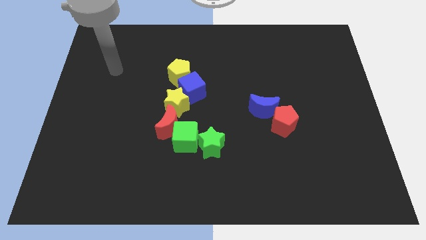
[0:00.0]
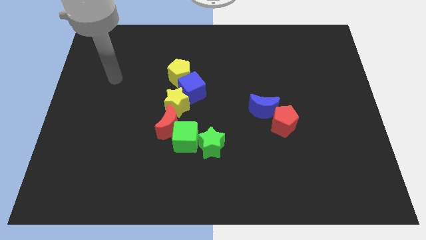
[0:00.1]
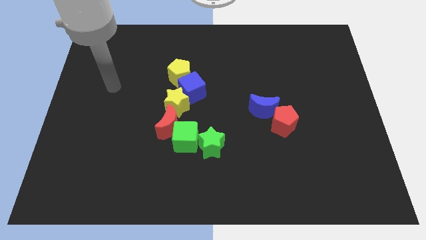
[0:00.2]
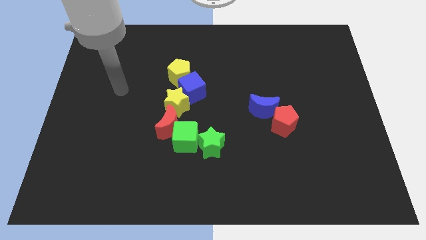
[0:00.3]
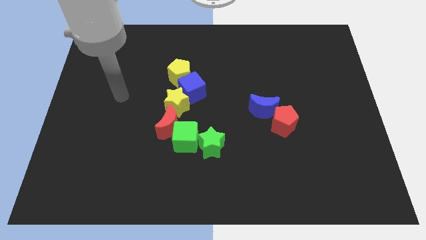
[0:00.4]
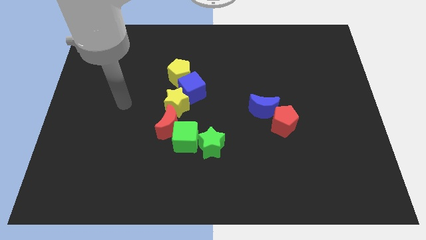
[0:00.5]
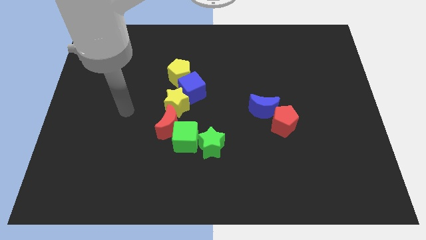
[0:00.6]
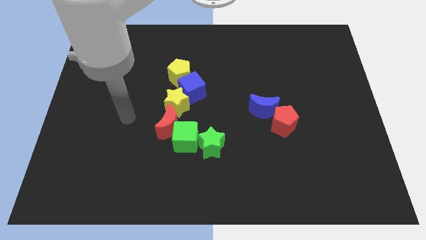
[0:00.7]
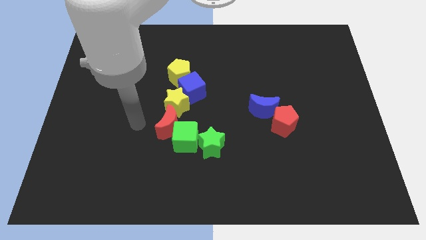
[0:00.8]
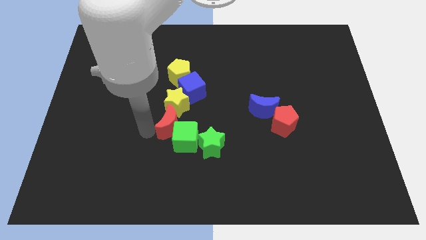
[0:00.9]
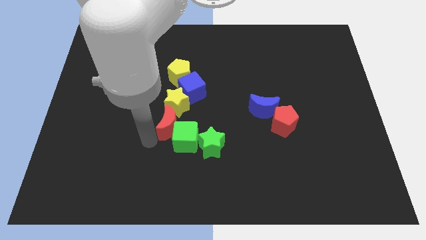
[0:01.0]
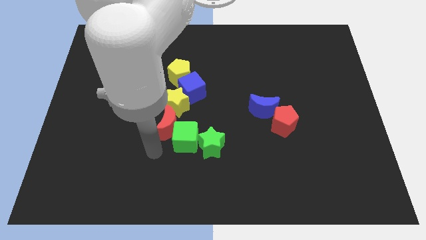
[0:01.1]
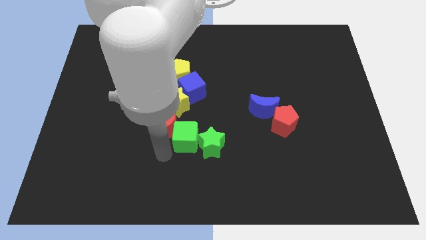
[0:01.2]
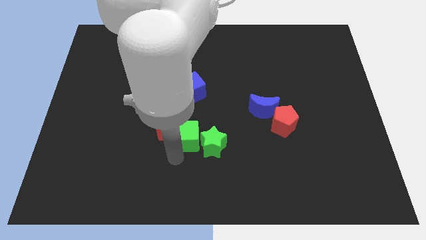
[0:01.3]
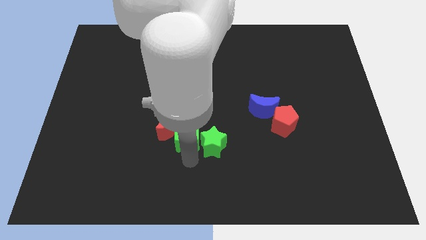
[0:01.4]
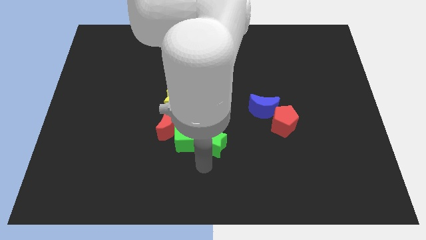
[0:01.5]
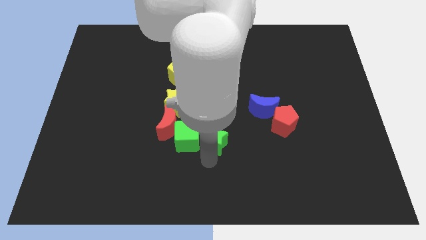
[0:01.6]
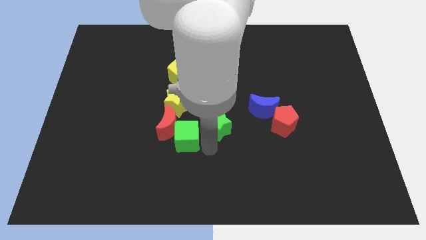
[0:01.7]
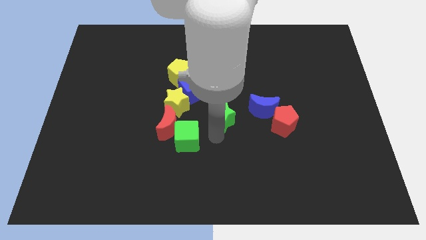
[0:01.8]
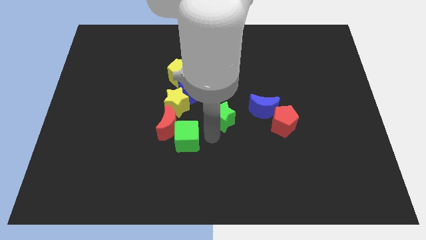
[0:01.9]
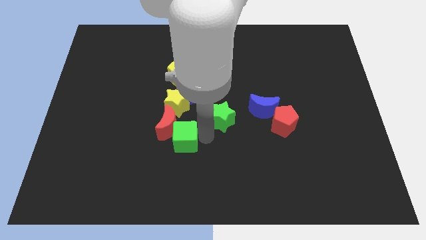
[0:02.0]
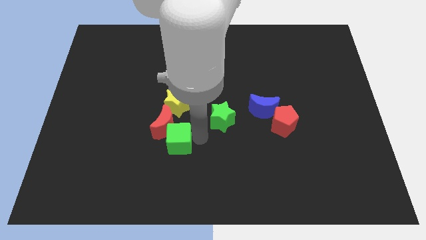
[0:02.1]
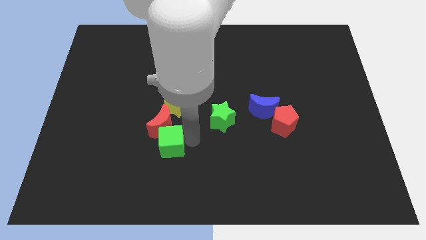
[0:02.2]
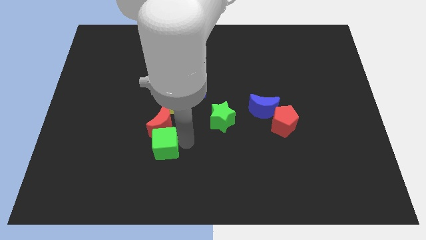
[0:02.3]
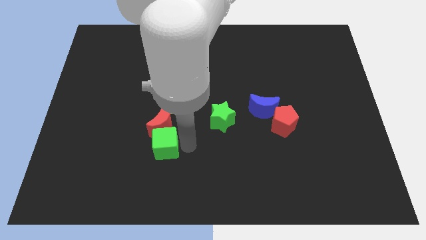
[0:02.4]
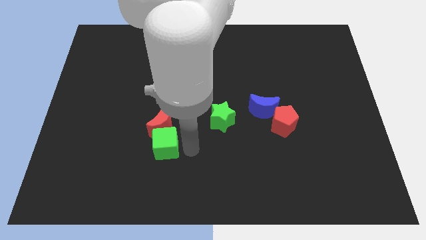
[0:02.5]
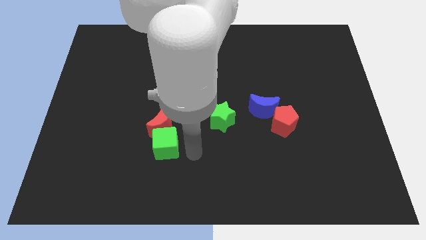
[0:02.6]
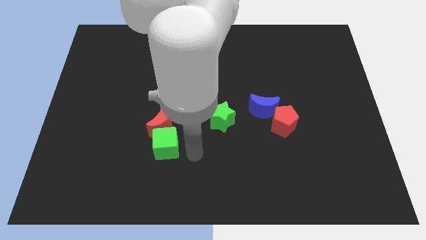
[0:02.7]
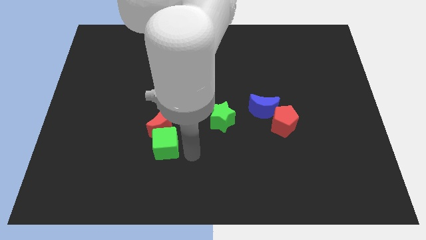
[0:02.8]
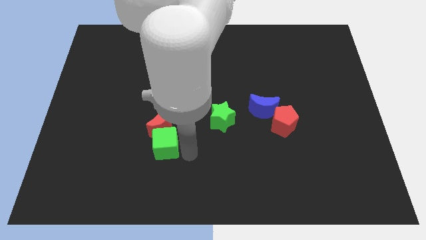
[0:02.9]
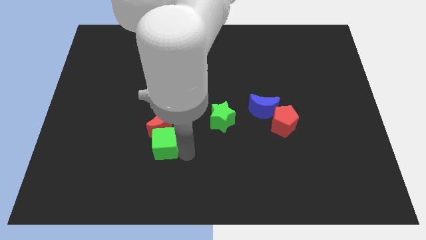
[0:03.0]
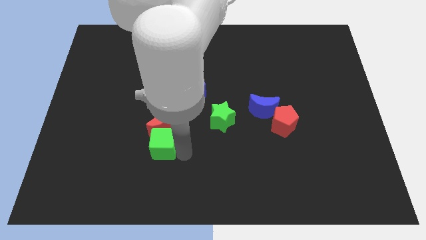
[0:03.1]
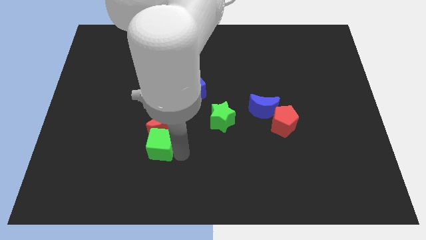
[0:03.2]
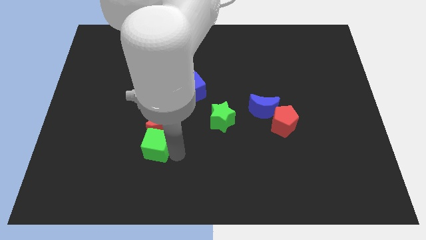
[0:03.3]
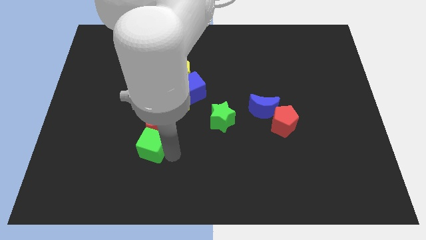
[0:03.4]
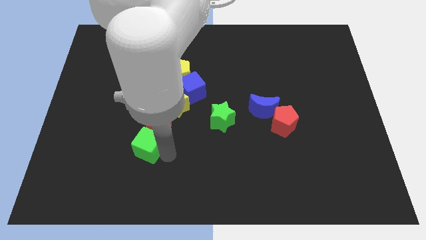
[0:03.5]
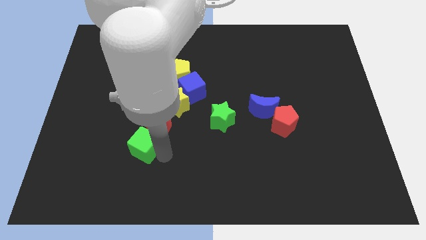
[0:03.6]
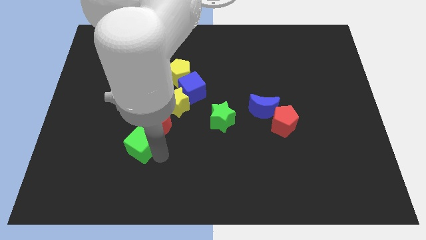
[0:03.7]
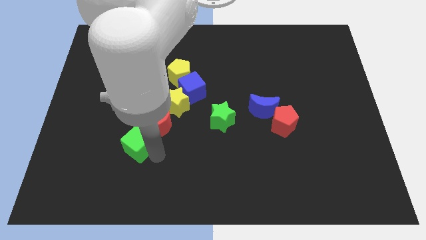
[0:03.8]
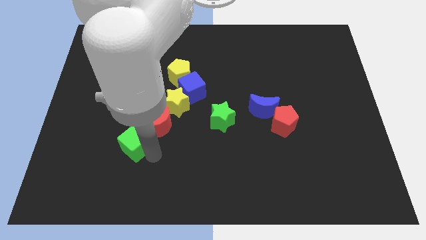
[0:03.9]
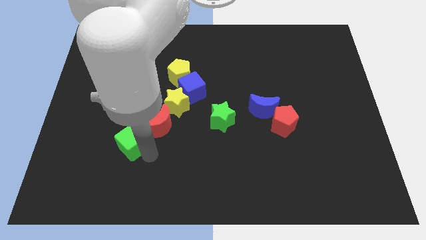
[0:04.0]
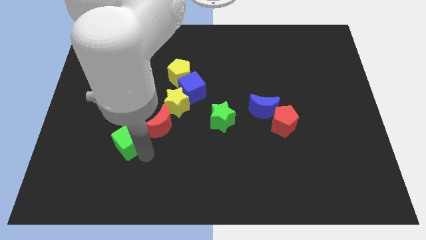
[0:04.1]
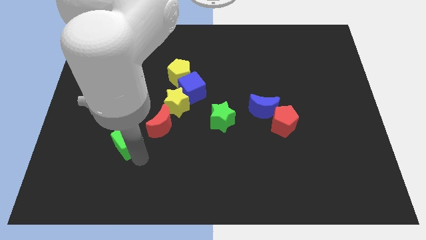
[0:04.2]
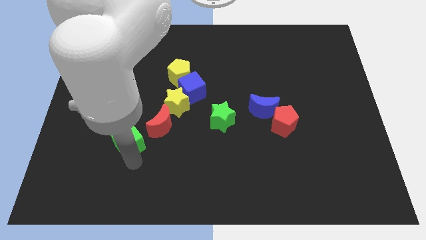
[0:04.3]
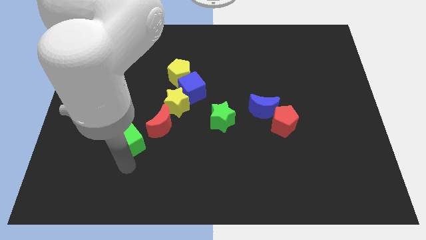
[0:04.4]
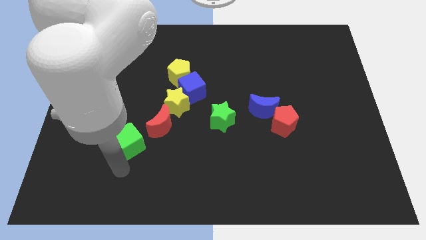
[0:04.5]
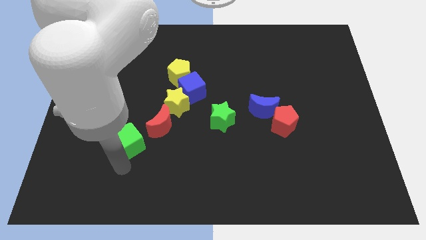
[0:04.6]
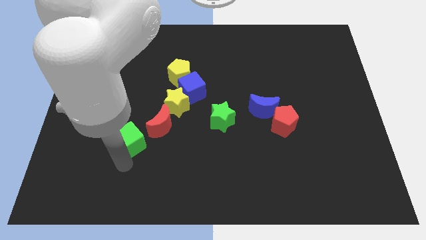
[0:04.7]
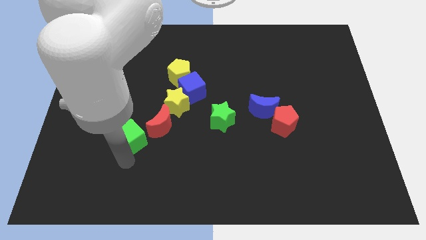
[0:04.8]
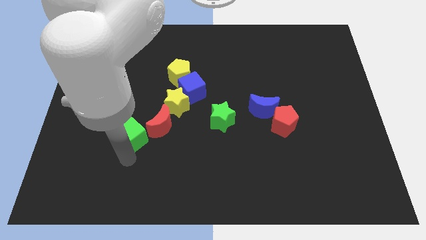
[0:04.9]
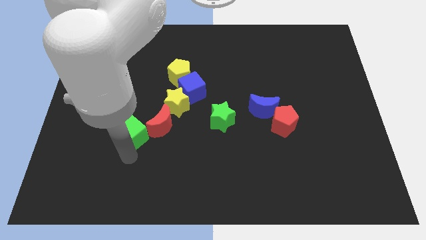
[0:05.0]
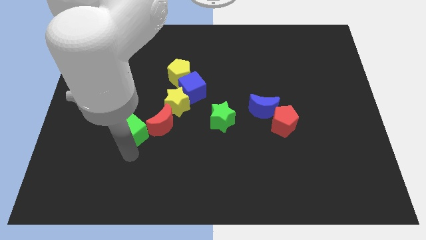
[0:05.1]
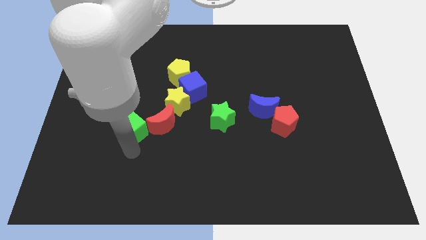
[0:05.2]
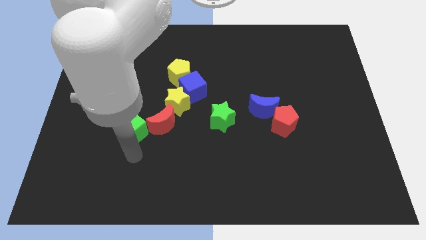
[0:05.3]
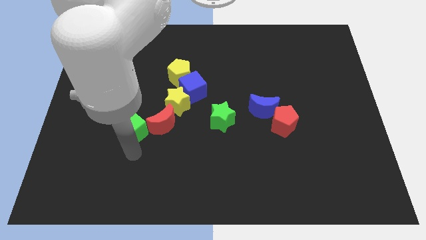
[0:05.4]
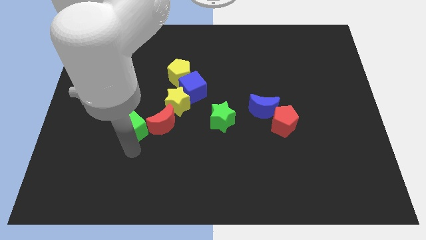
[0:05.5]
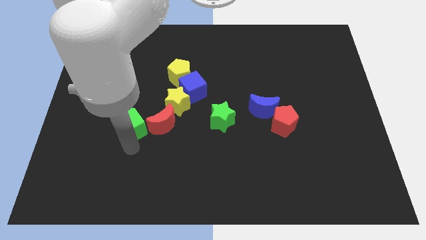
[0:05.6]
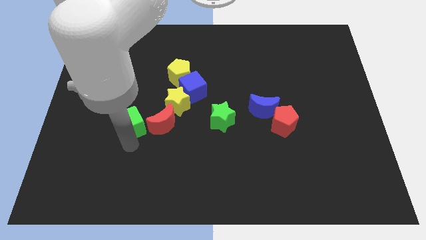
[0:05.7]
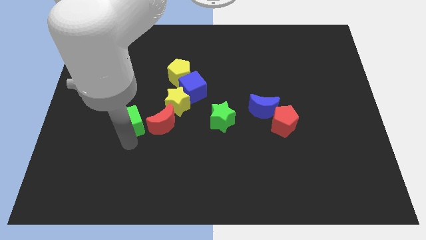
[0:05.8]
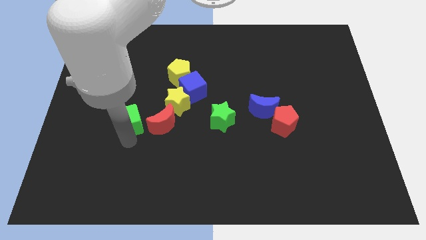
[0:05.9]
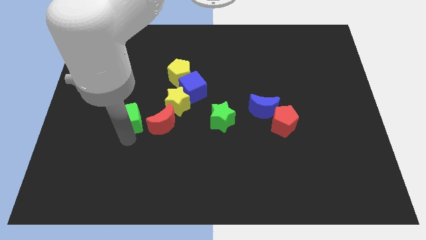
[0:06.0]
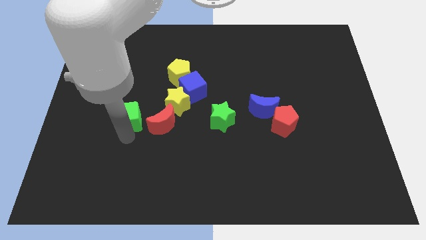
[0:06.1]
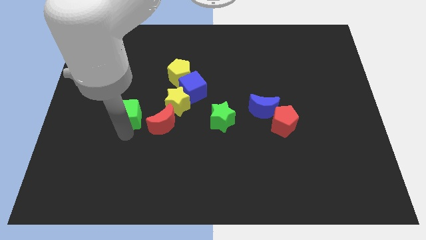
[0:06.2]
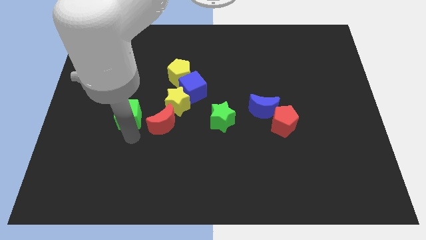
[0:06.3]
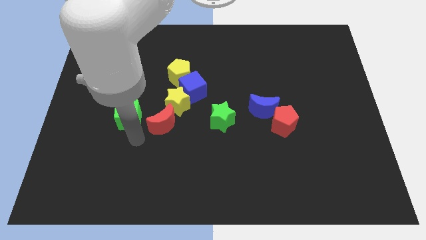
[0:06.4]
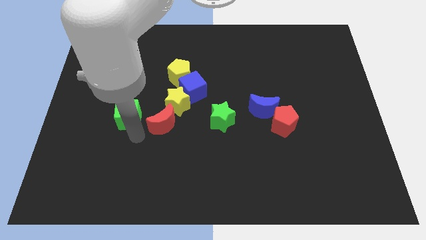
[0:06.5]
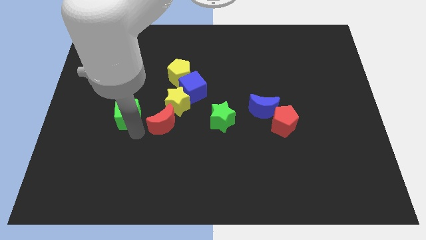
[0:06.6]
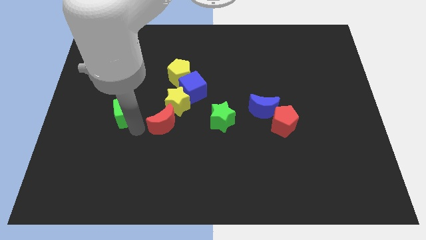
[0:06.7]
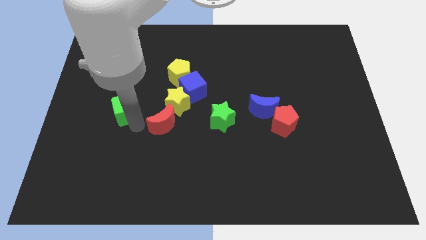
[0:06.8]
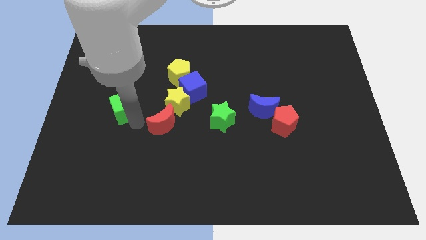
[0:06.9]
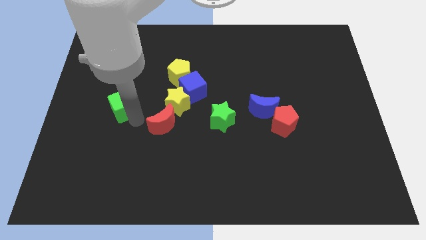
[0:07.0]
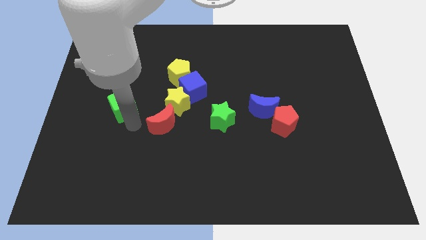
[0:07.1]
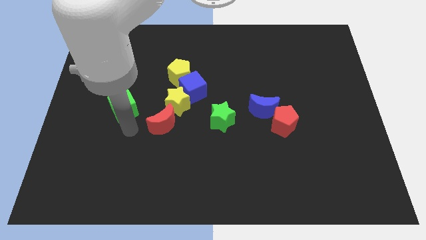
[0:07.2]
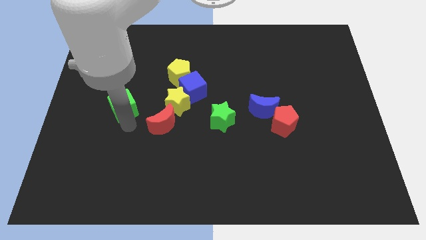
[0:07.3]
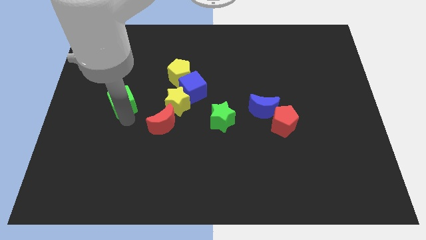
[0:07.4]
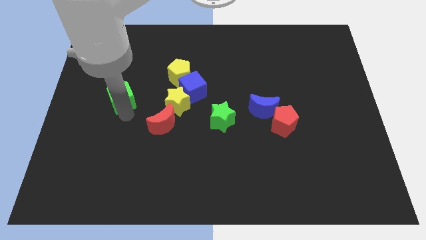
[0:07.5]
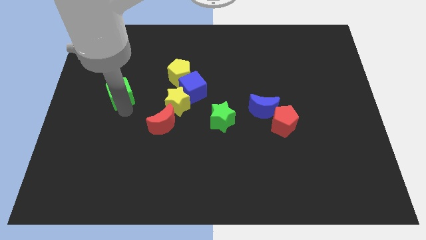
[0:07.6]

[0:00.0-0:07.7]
move the green cube up and to the left diagonally
